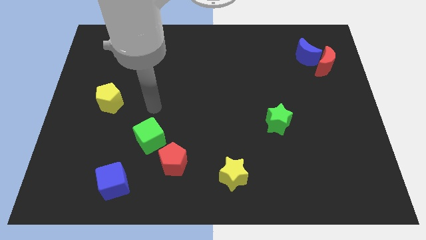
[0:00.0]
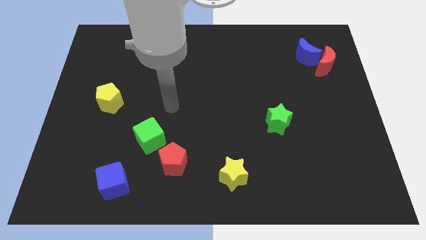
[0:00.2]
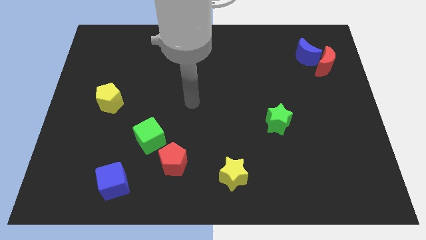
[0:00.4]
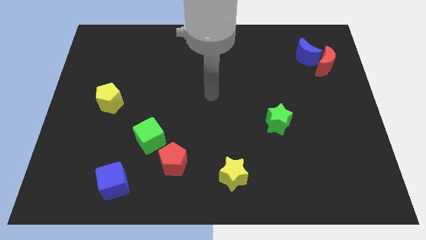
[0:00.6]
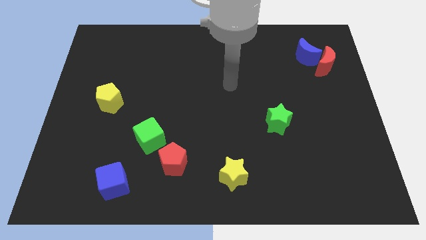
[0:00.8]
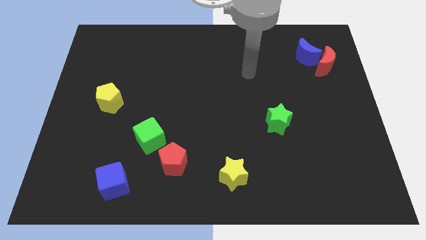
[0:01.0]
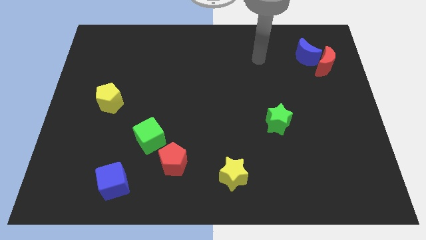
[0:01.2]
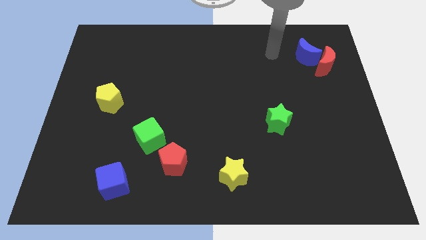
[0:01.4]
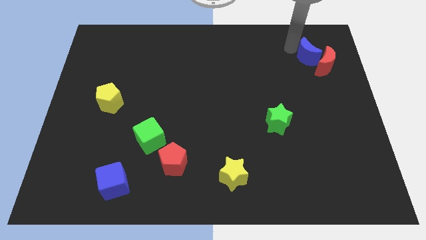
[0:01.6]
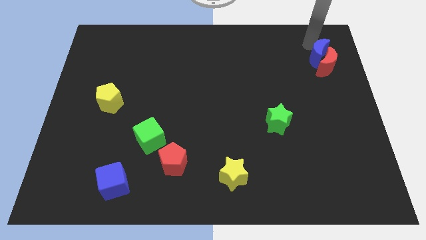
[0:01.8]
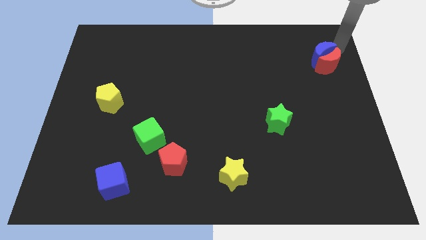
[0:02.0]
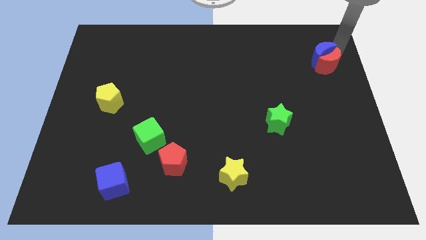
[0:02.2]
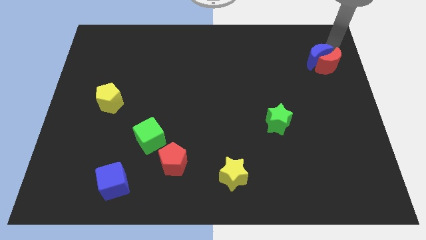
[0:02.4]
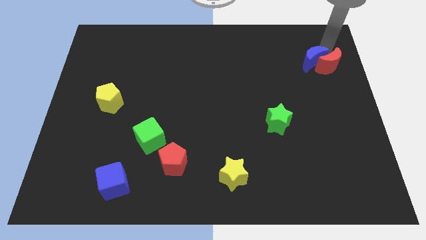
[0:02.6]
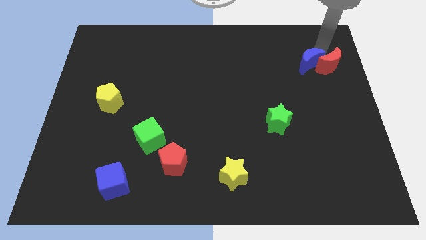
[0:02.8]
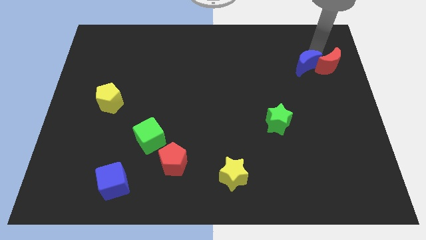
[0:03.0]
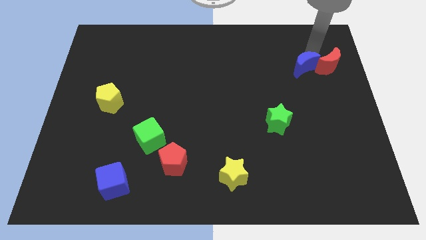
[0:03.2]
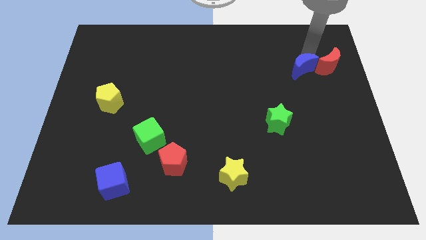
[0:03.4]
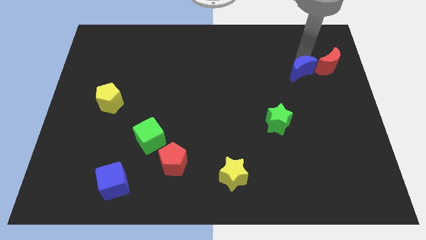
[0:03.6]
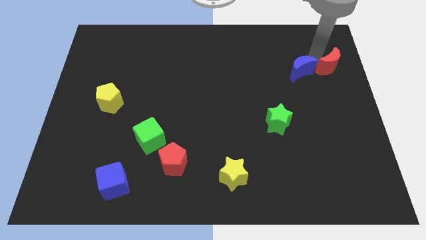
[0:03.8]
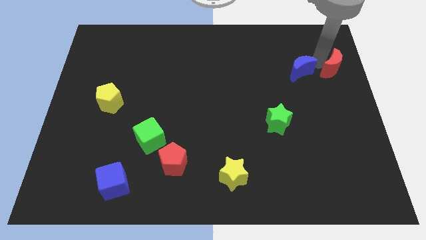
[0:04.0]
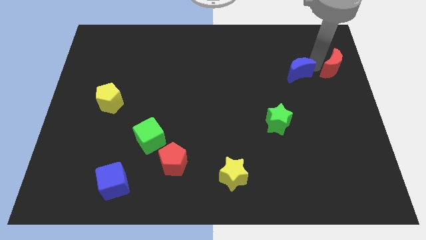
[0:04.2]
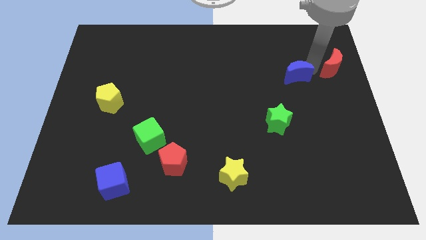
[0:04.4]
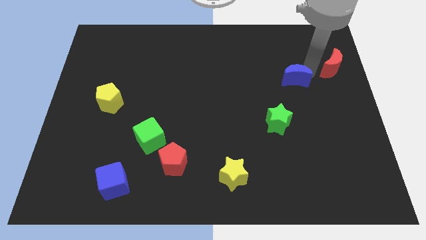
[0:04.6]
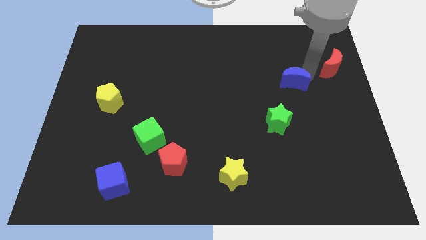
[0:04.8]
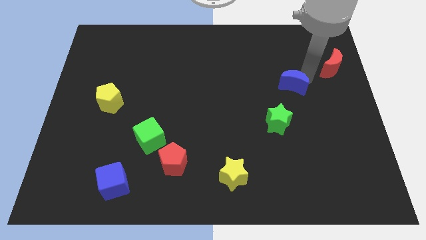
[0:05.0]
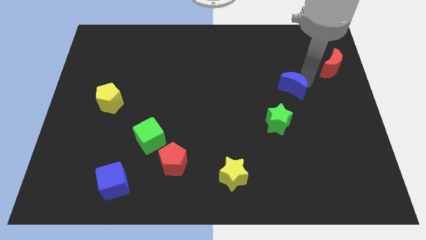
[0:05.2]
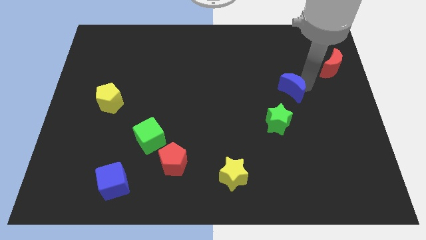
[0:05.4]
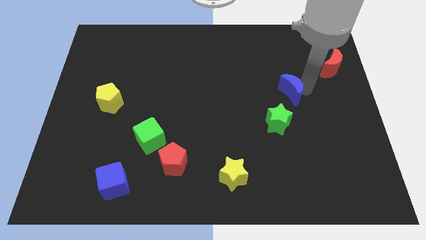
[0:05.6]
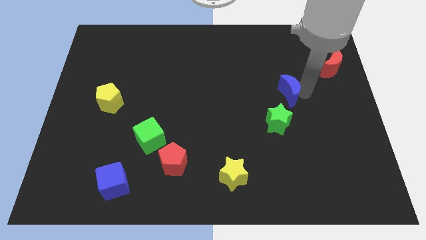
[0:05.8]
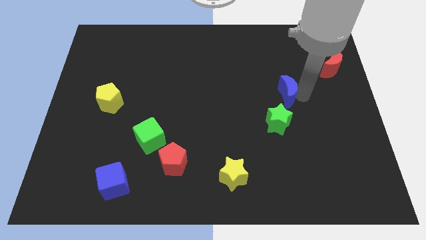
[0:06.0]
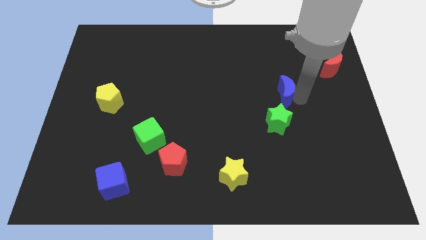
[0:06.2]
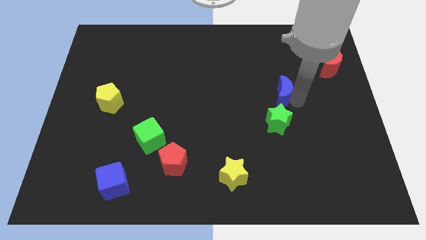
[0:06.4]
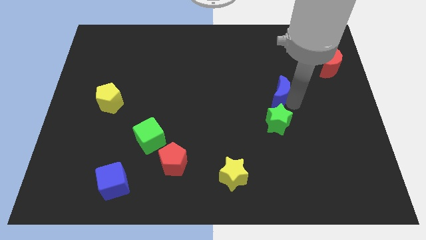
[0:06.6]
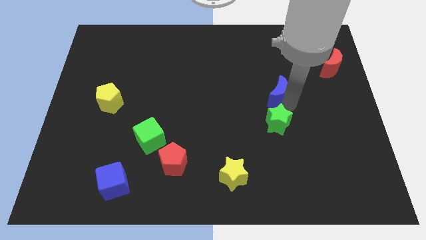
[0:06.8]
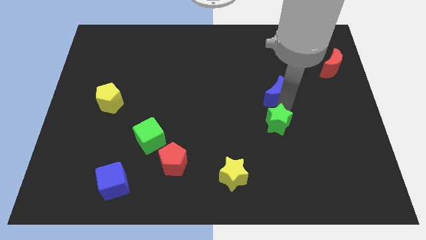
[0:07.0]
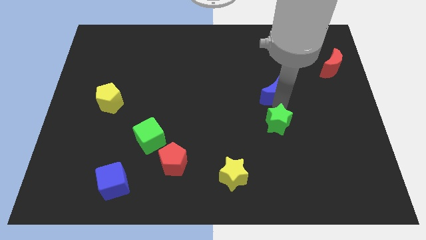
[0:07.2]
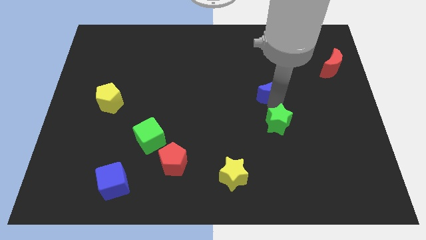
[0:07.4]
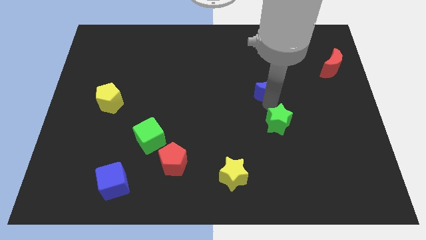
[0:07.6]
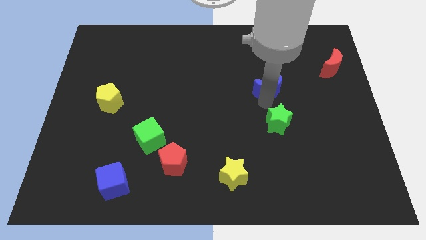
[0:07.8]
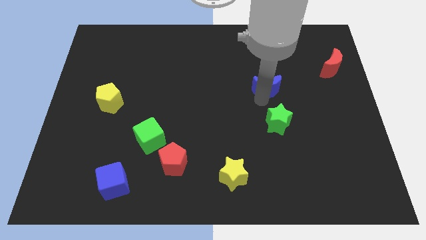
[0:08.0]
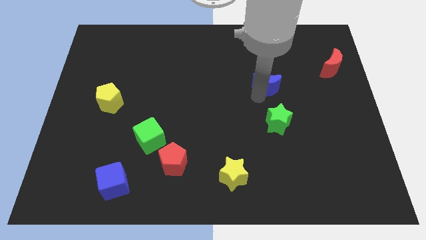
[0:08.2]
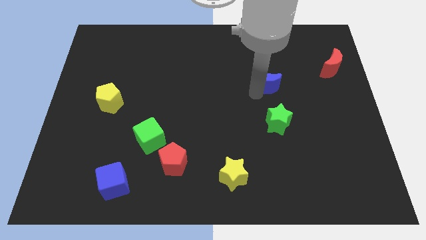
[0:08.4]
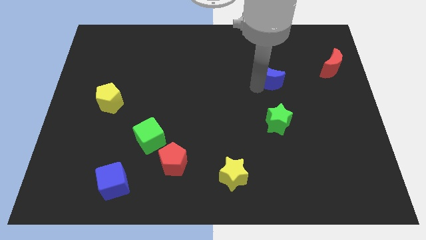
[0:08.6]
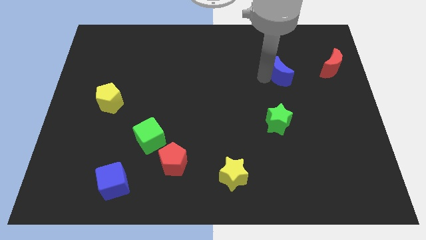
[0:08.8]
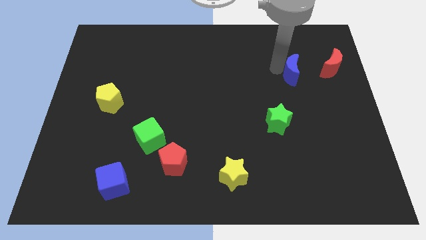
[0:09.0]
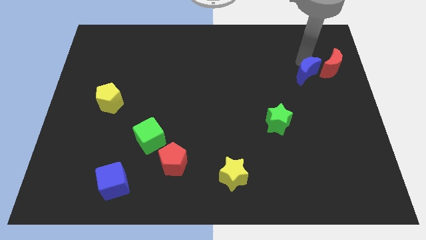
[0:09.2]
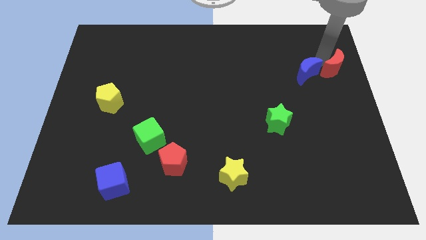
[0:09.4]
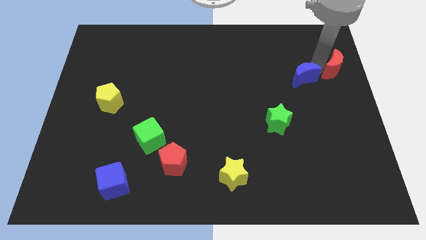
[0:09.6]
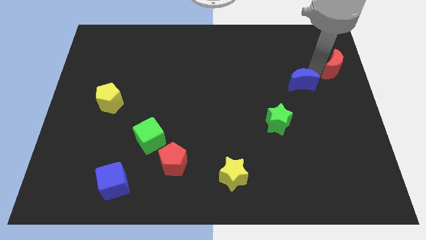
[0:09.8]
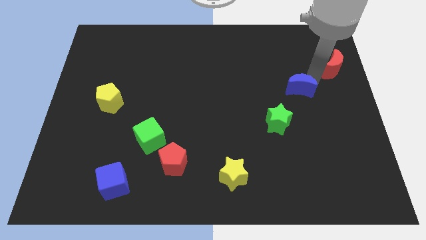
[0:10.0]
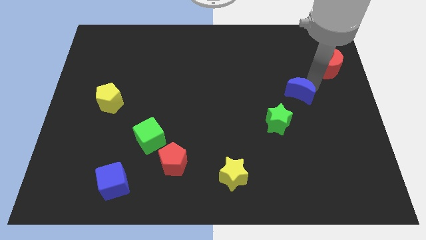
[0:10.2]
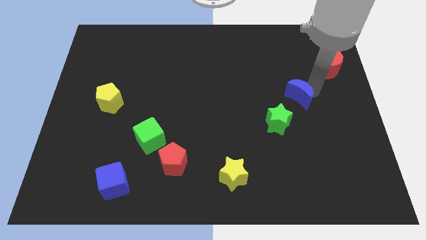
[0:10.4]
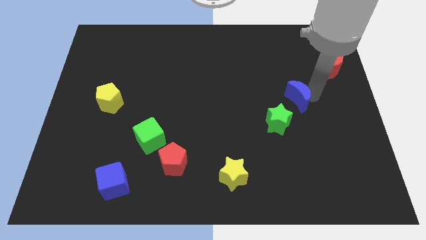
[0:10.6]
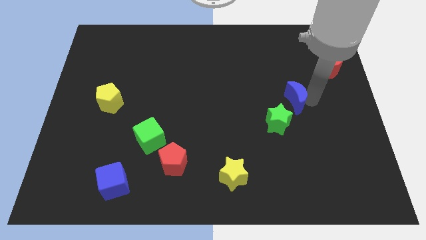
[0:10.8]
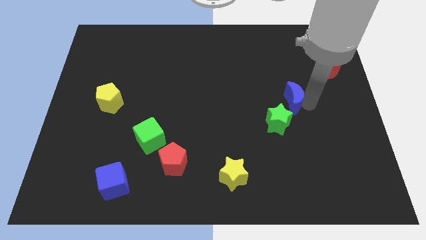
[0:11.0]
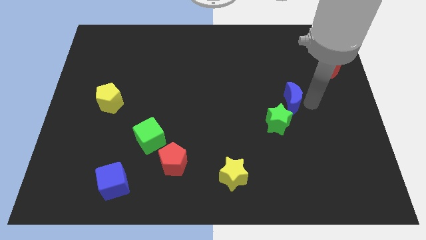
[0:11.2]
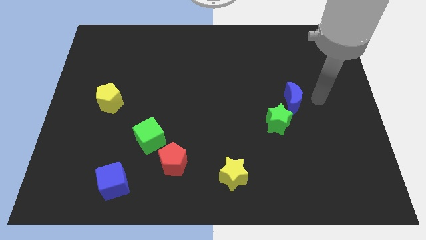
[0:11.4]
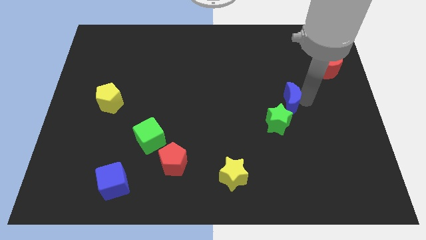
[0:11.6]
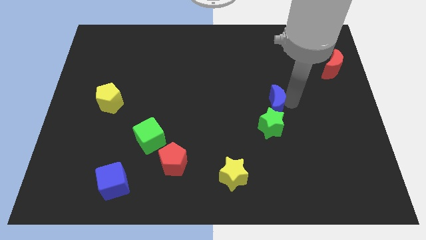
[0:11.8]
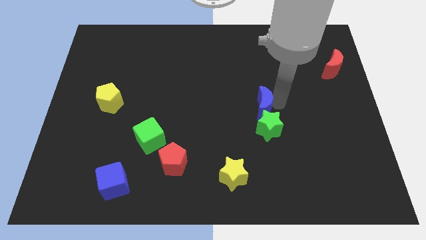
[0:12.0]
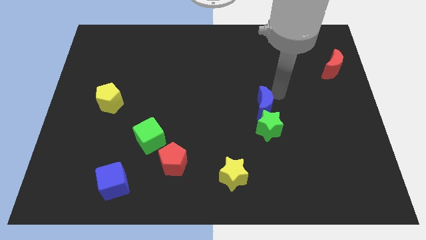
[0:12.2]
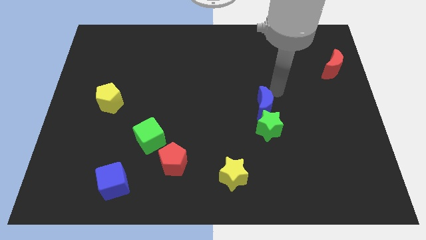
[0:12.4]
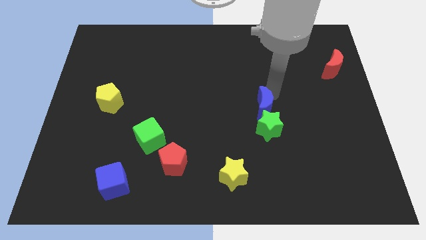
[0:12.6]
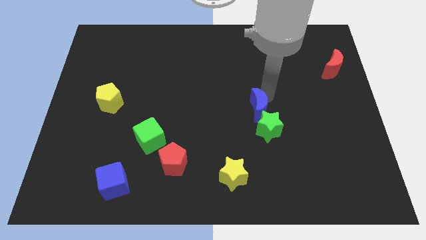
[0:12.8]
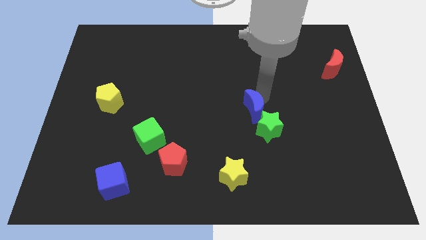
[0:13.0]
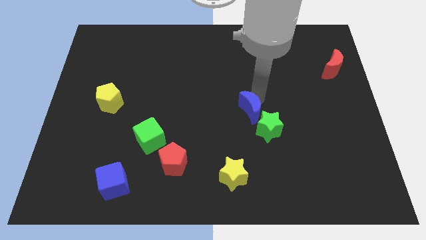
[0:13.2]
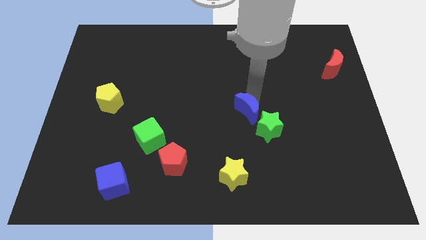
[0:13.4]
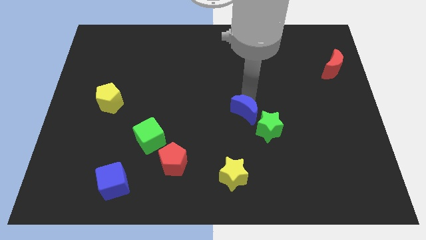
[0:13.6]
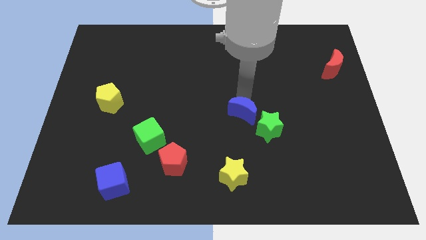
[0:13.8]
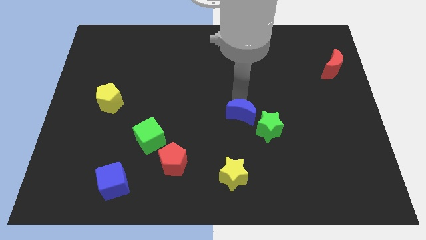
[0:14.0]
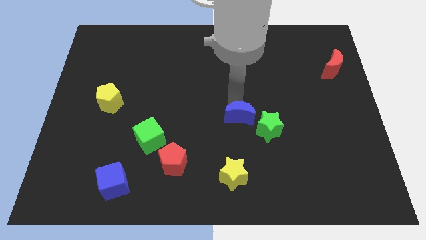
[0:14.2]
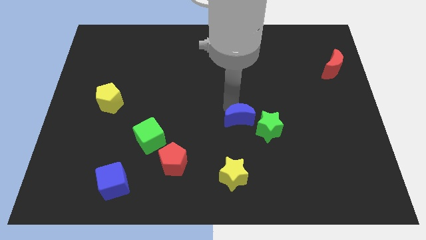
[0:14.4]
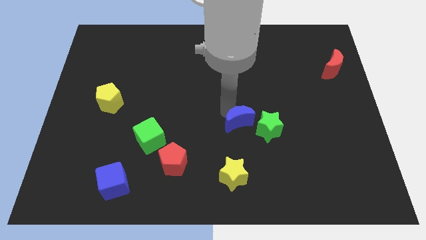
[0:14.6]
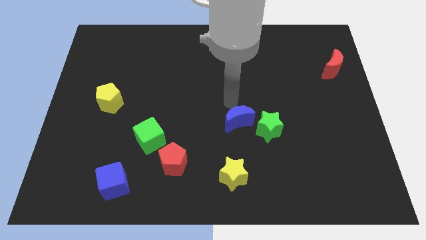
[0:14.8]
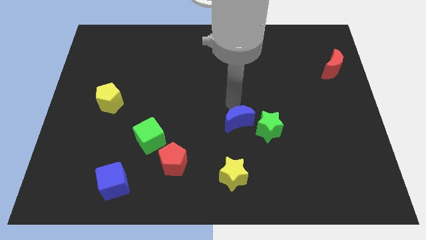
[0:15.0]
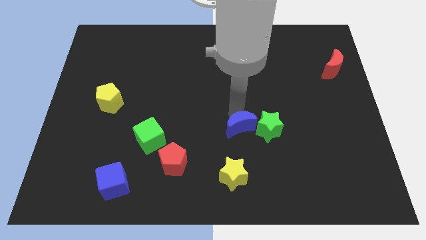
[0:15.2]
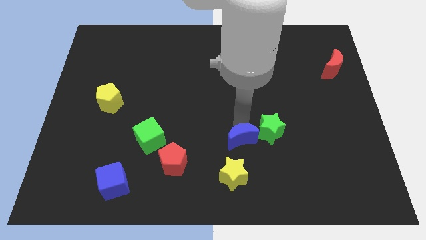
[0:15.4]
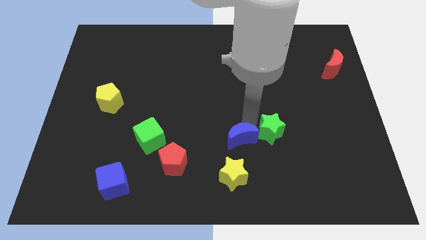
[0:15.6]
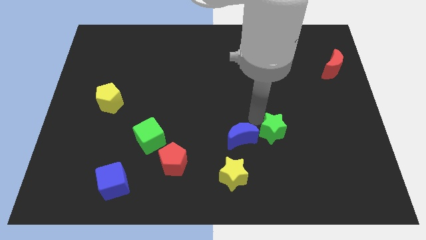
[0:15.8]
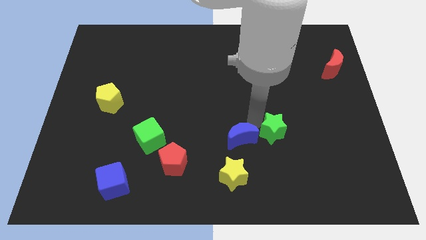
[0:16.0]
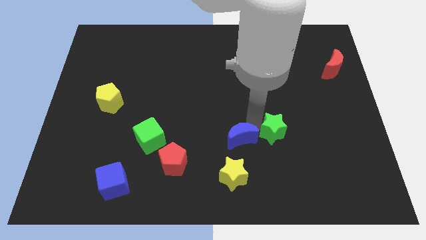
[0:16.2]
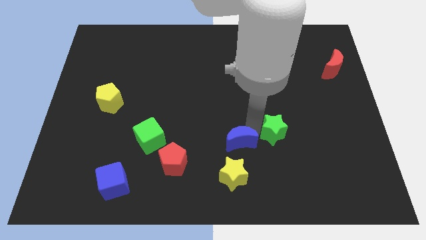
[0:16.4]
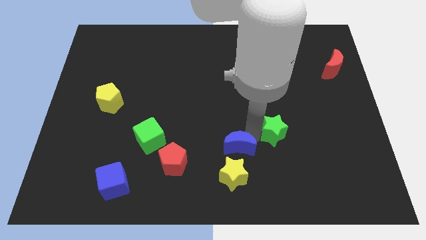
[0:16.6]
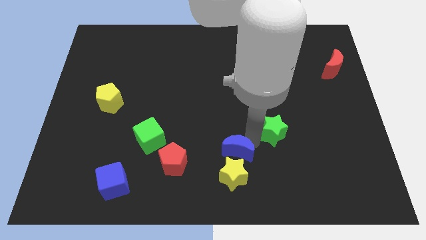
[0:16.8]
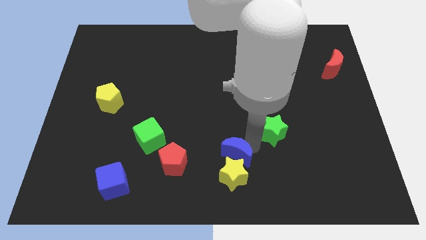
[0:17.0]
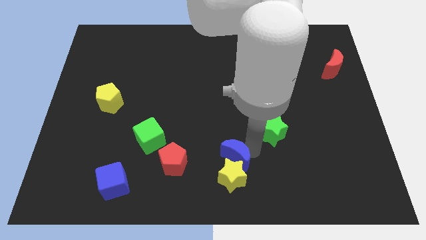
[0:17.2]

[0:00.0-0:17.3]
push the blue moon to the bottom side
